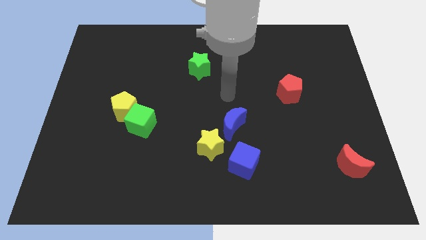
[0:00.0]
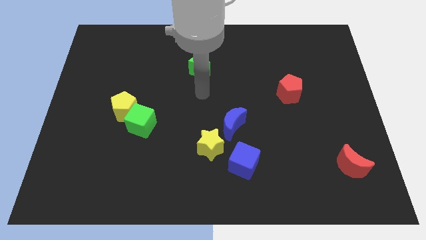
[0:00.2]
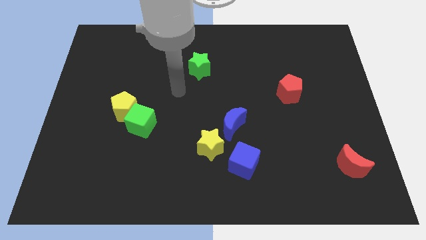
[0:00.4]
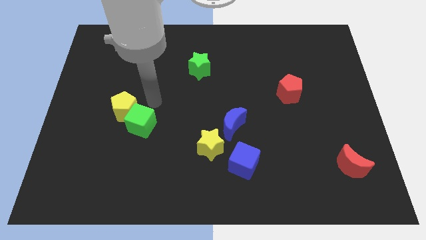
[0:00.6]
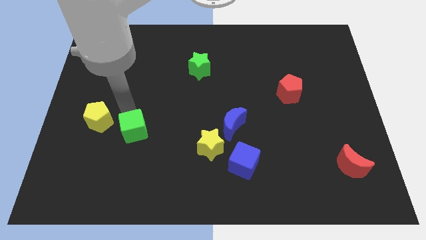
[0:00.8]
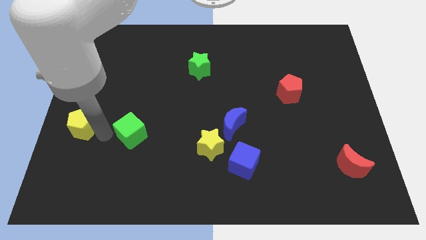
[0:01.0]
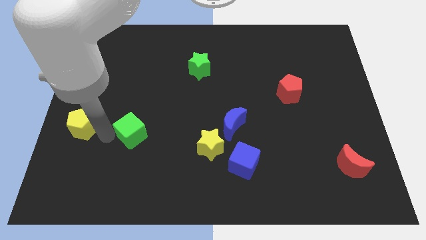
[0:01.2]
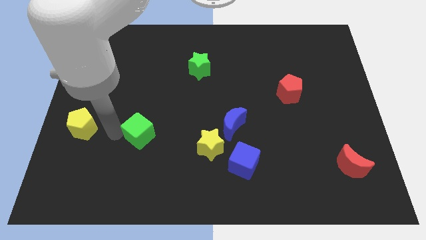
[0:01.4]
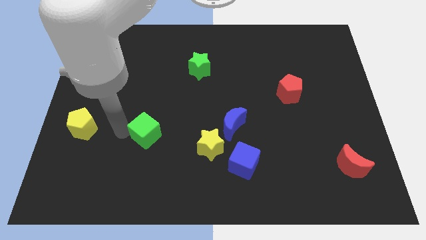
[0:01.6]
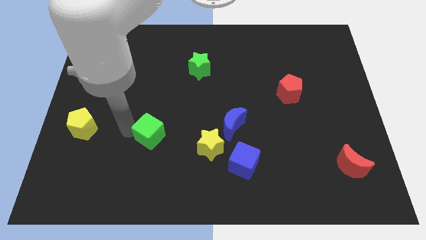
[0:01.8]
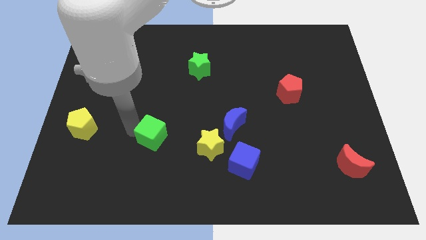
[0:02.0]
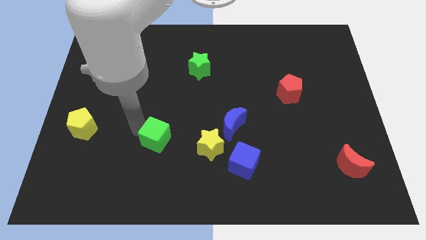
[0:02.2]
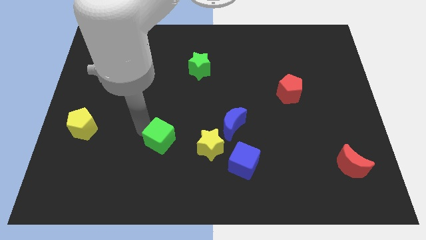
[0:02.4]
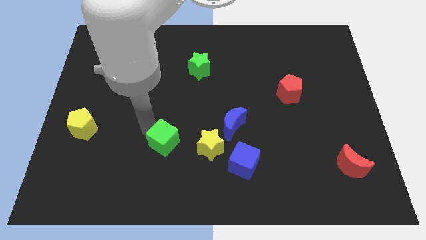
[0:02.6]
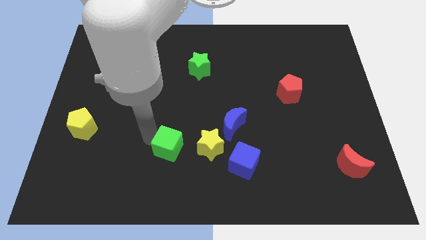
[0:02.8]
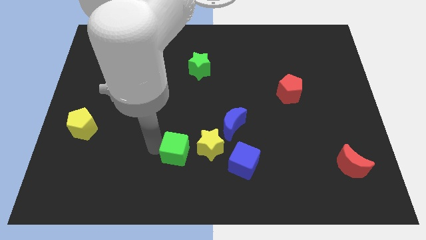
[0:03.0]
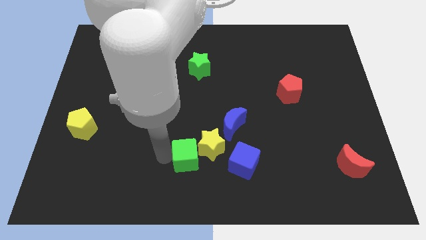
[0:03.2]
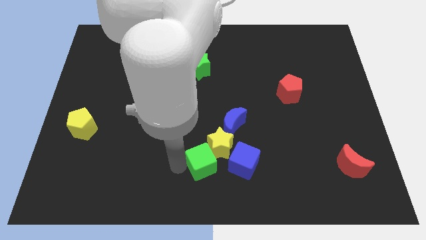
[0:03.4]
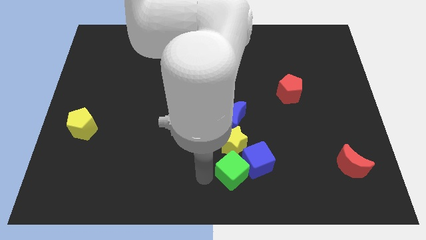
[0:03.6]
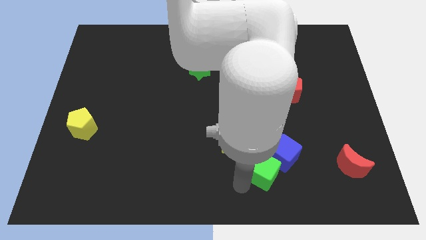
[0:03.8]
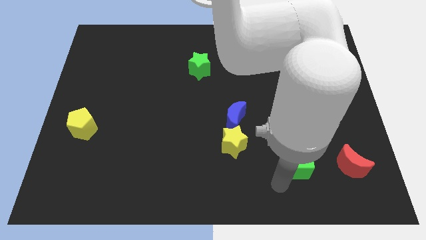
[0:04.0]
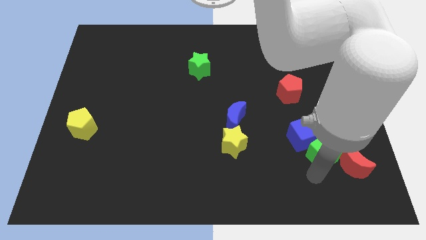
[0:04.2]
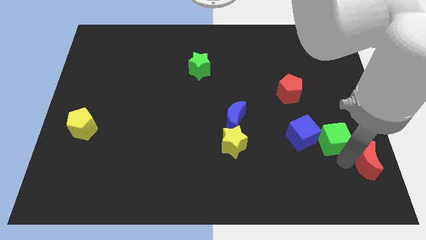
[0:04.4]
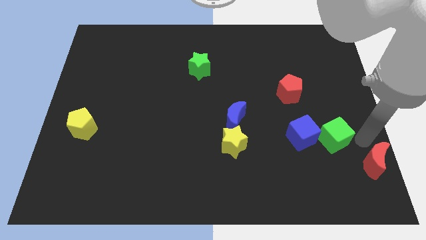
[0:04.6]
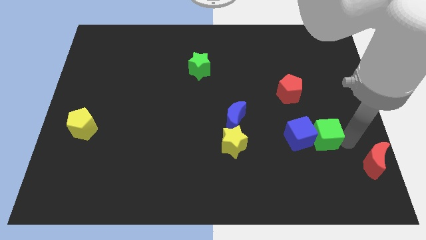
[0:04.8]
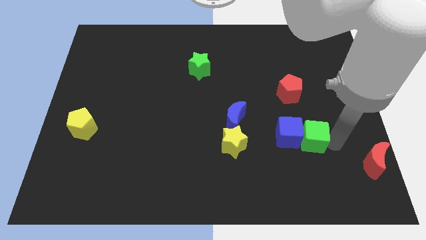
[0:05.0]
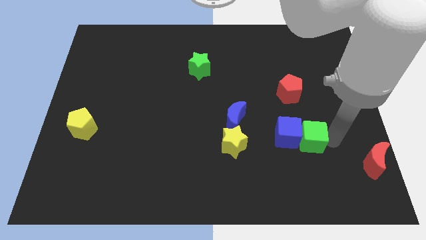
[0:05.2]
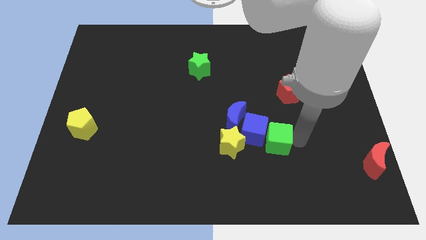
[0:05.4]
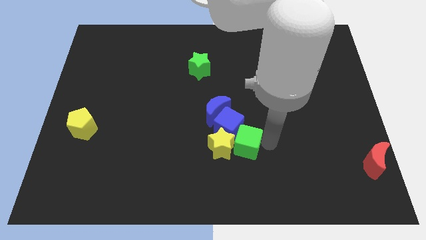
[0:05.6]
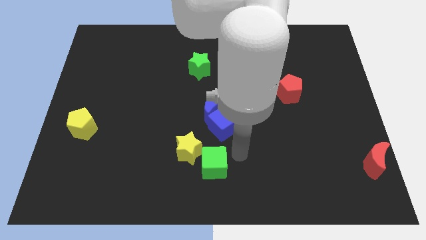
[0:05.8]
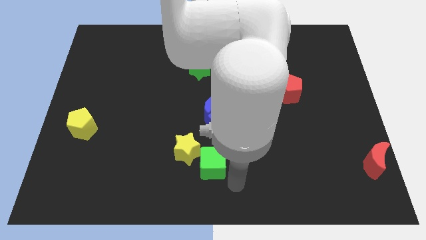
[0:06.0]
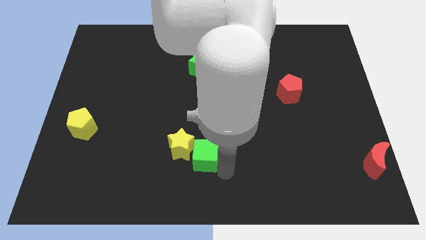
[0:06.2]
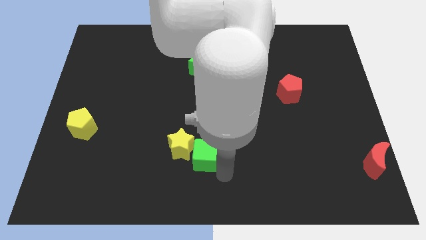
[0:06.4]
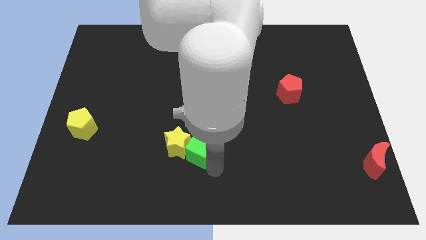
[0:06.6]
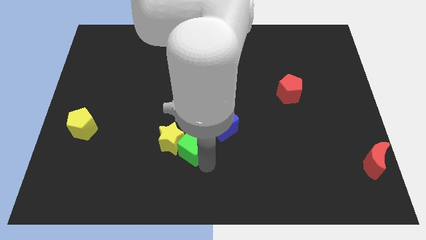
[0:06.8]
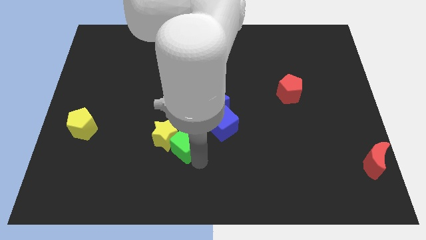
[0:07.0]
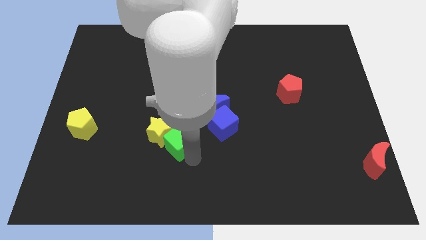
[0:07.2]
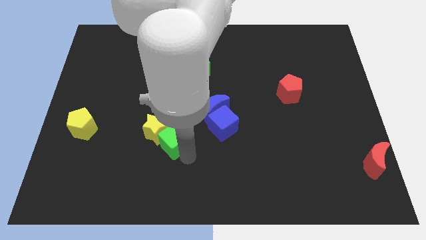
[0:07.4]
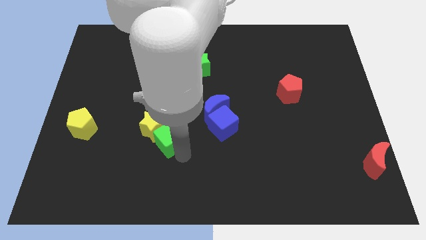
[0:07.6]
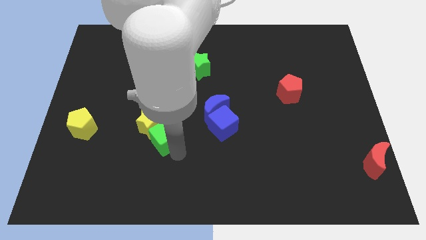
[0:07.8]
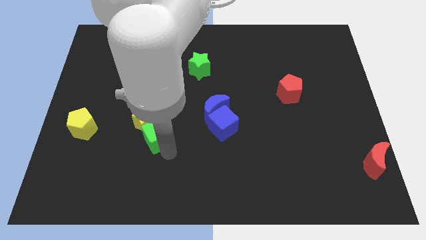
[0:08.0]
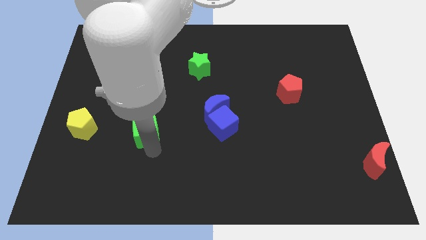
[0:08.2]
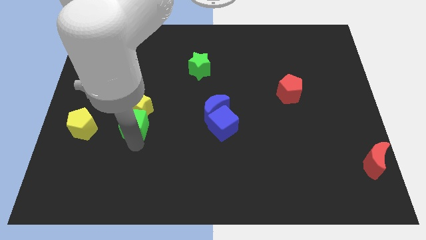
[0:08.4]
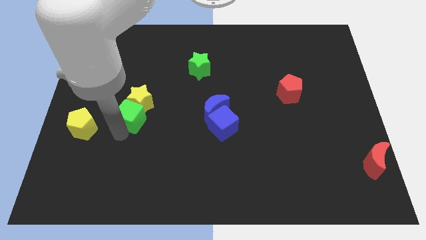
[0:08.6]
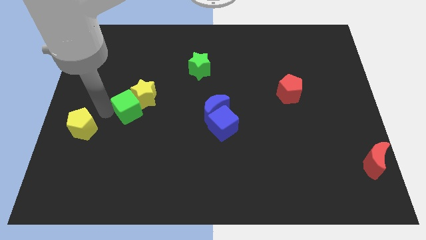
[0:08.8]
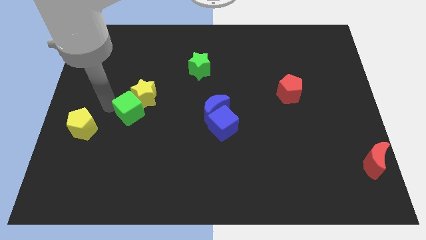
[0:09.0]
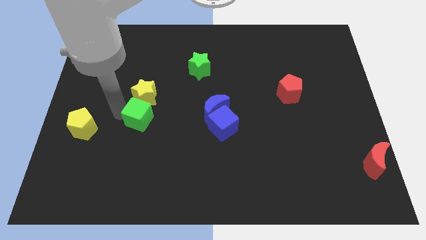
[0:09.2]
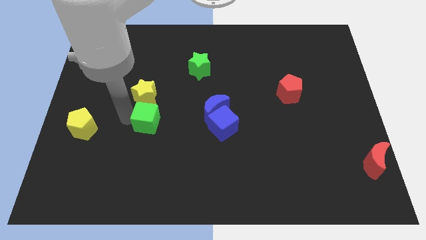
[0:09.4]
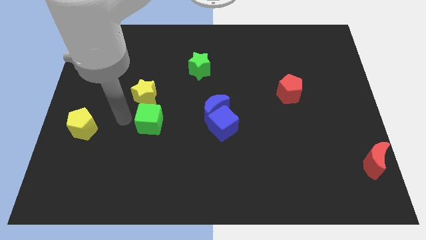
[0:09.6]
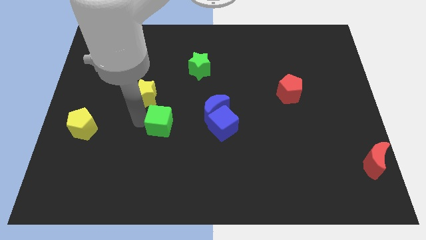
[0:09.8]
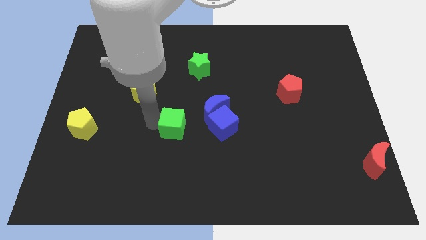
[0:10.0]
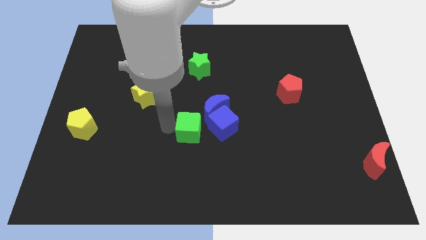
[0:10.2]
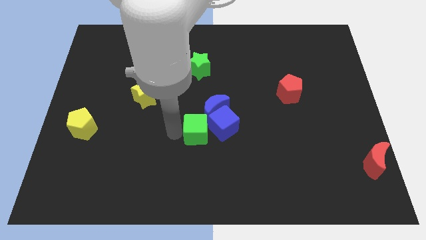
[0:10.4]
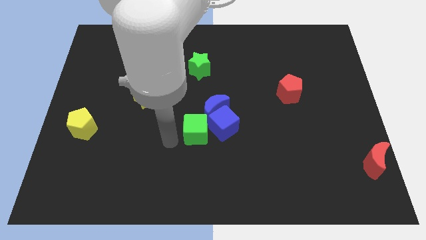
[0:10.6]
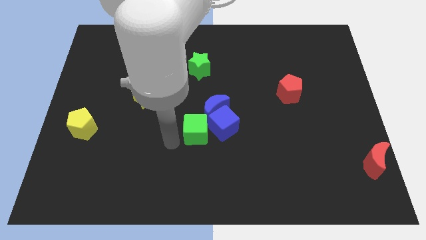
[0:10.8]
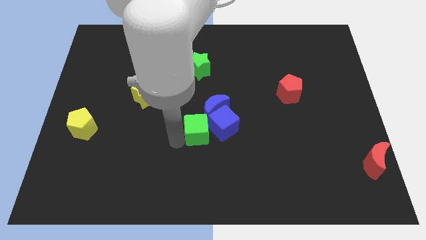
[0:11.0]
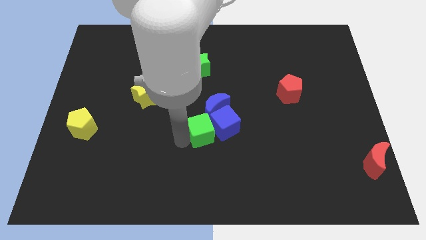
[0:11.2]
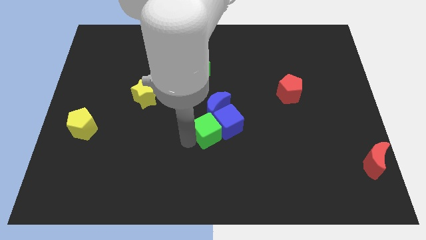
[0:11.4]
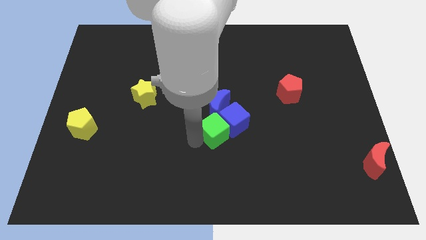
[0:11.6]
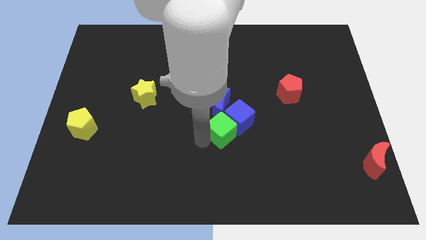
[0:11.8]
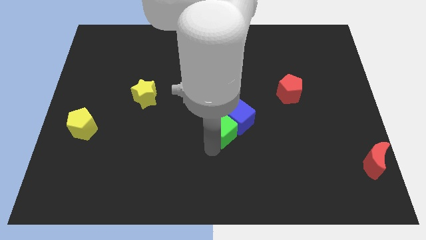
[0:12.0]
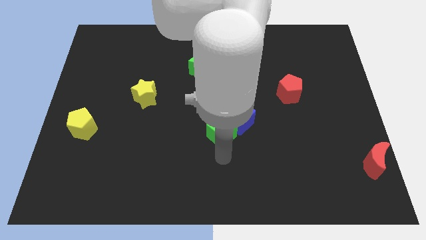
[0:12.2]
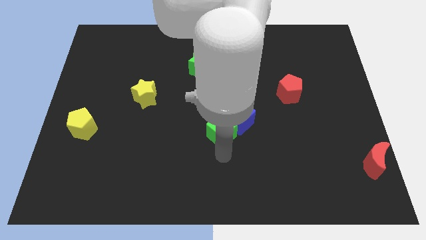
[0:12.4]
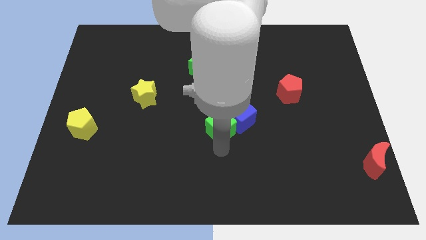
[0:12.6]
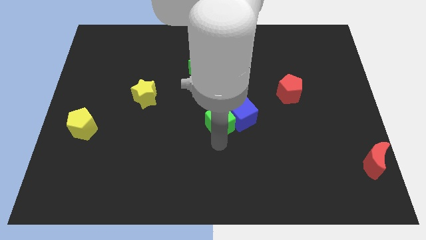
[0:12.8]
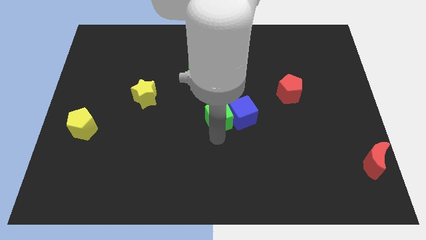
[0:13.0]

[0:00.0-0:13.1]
put the green cube next to the blue moon

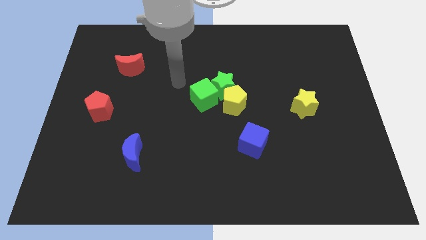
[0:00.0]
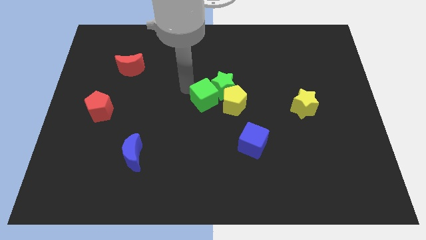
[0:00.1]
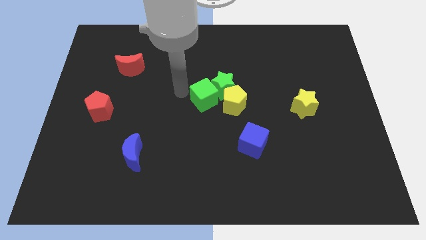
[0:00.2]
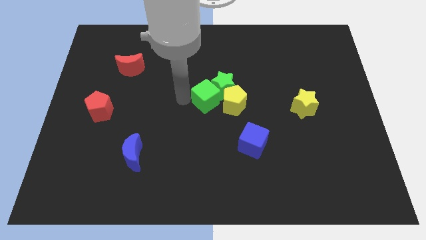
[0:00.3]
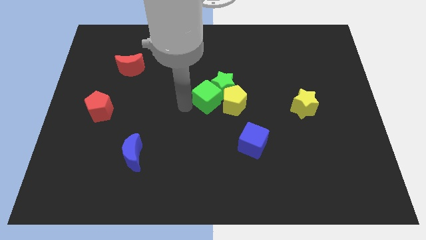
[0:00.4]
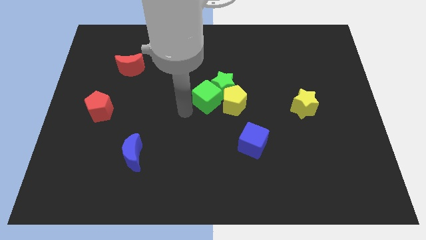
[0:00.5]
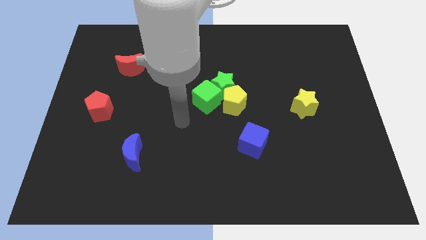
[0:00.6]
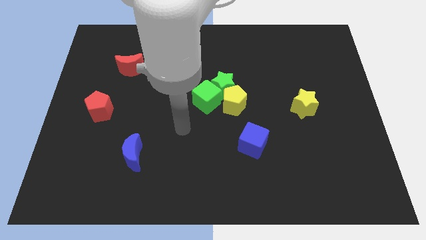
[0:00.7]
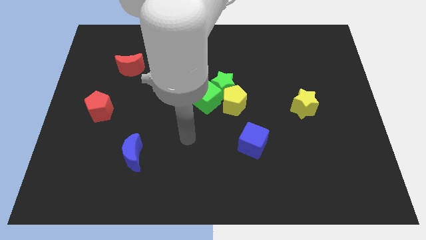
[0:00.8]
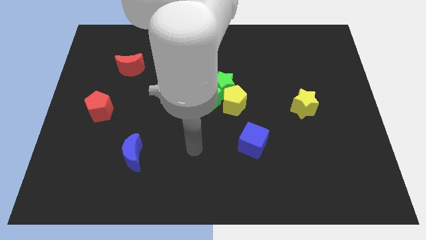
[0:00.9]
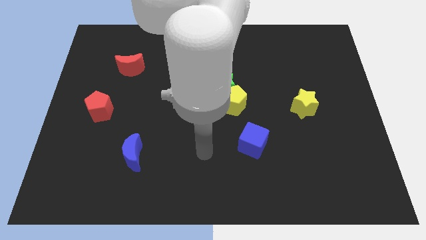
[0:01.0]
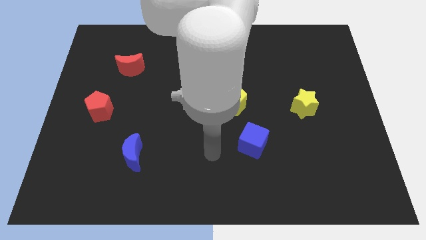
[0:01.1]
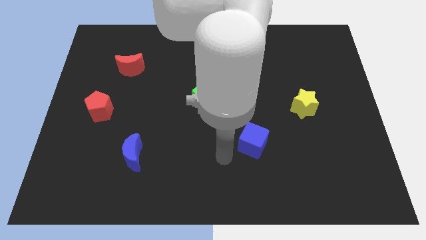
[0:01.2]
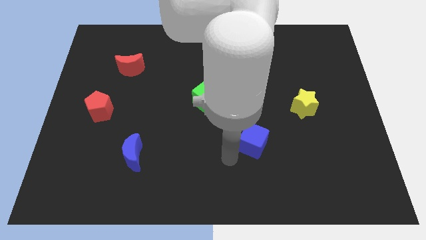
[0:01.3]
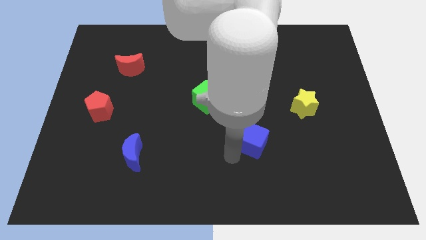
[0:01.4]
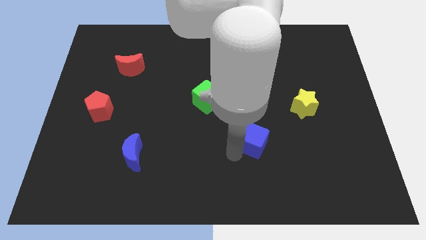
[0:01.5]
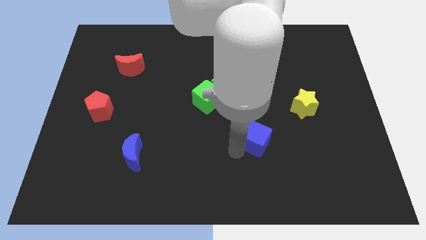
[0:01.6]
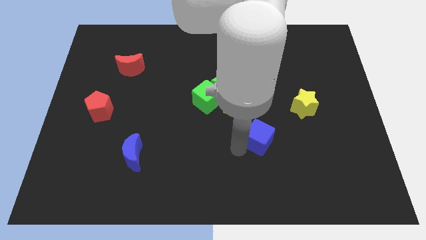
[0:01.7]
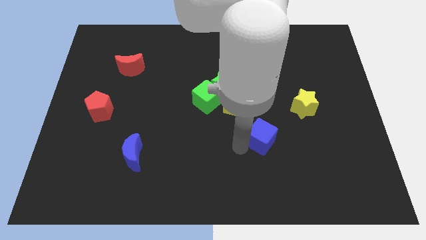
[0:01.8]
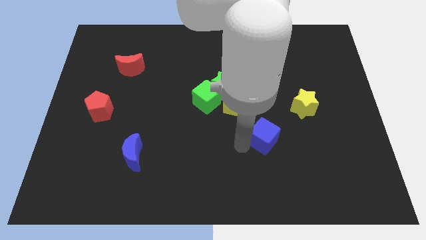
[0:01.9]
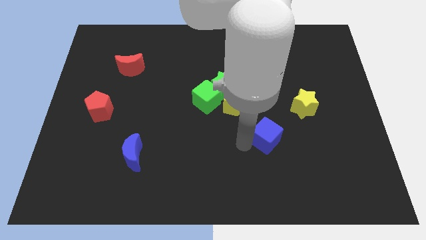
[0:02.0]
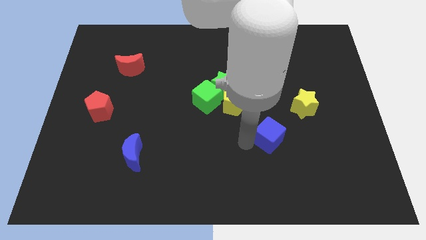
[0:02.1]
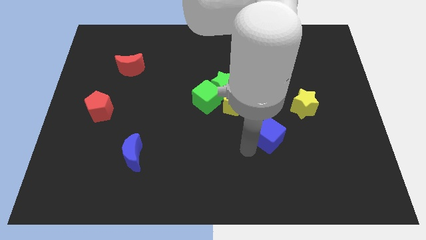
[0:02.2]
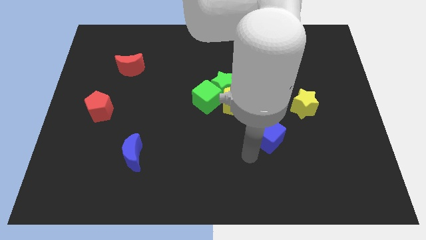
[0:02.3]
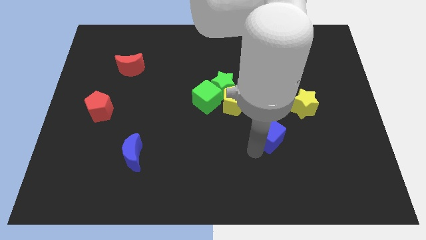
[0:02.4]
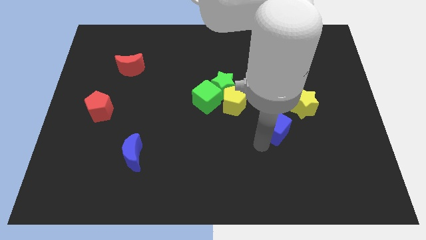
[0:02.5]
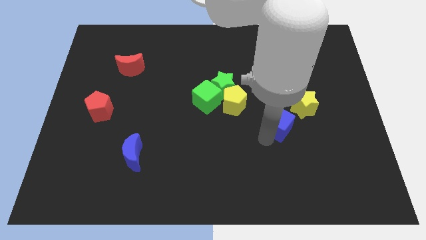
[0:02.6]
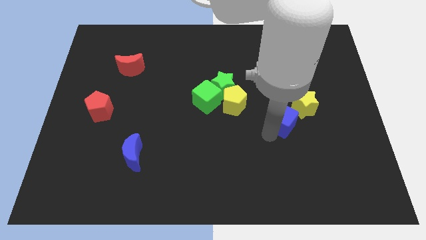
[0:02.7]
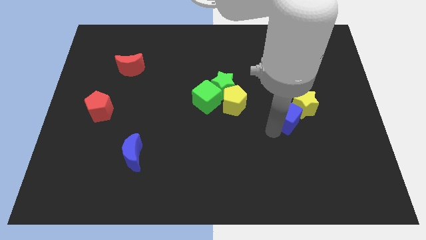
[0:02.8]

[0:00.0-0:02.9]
slide the blue cube towards the yellow star
